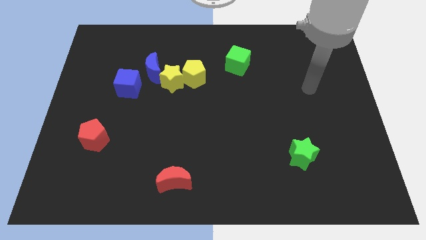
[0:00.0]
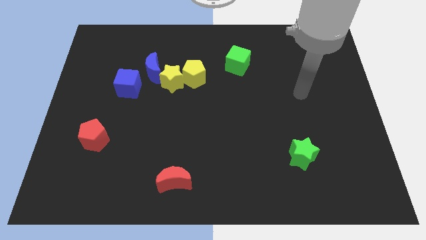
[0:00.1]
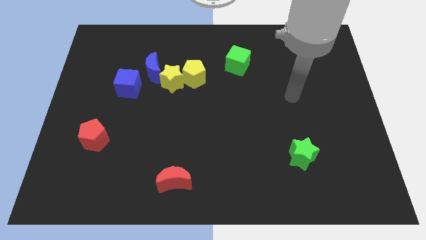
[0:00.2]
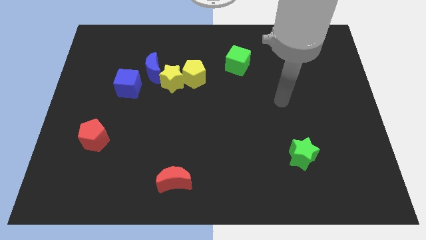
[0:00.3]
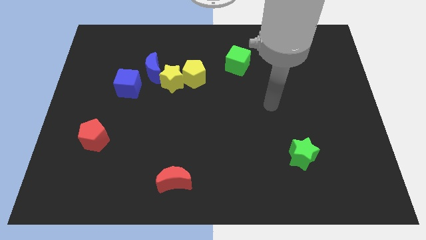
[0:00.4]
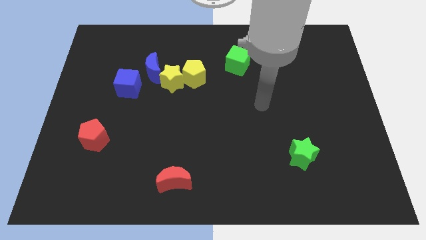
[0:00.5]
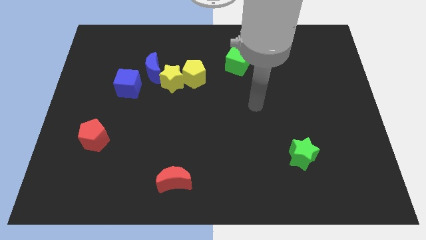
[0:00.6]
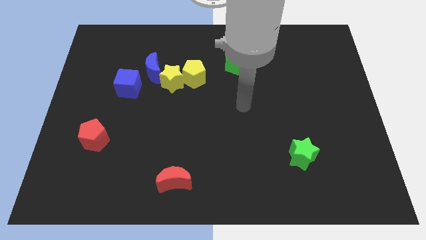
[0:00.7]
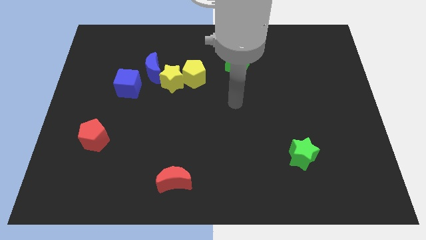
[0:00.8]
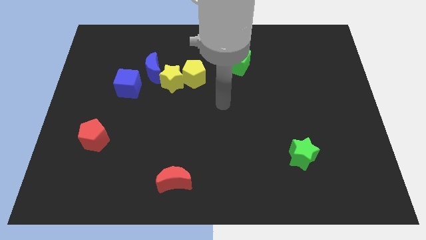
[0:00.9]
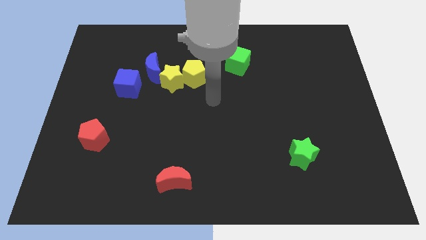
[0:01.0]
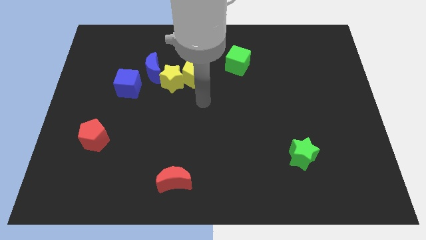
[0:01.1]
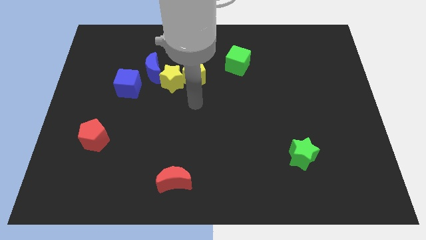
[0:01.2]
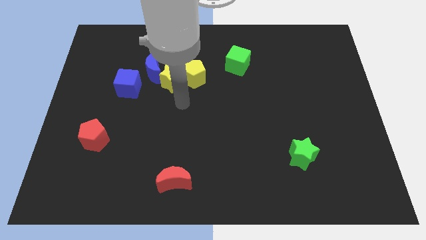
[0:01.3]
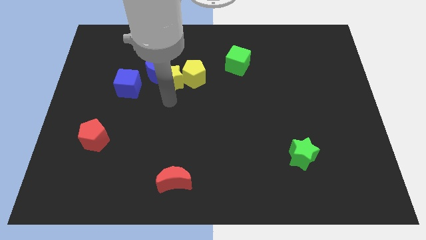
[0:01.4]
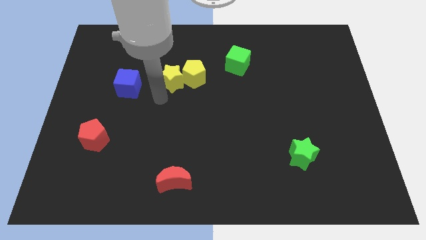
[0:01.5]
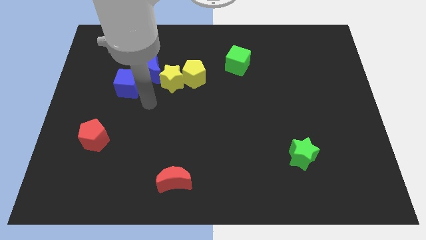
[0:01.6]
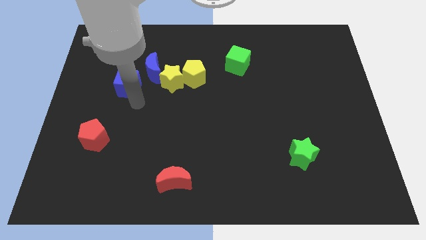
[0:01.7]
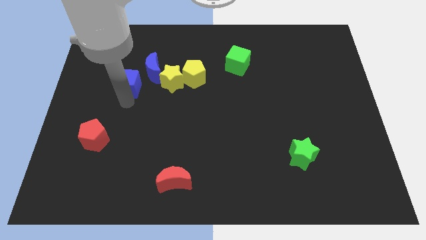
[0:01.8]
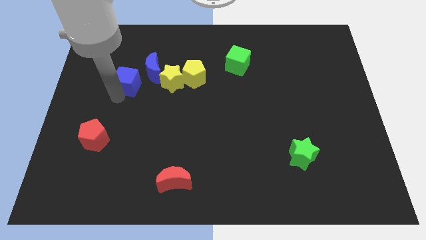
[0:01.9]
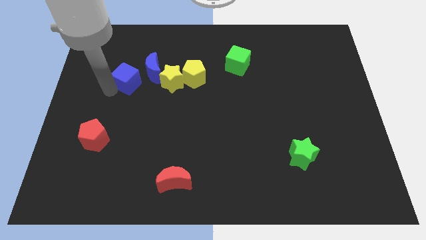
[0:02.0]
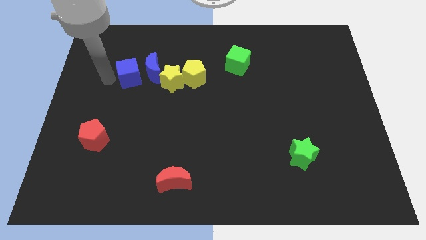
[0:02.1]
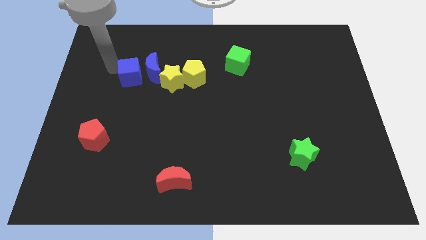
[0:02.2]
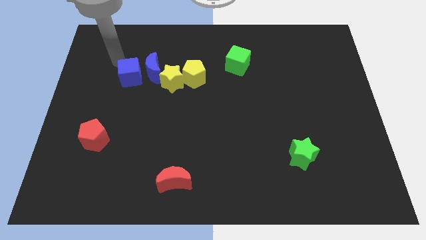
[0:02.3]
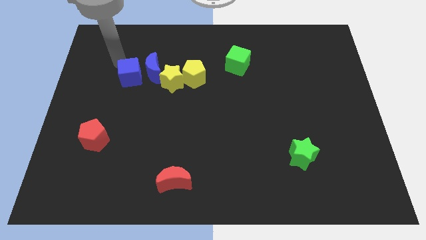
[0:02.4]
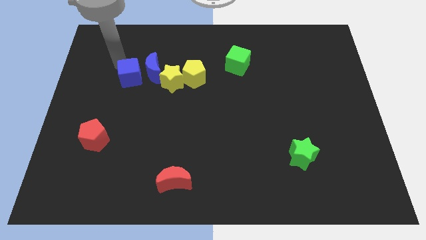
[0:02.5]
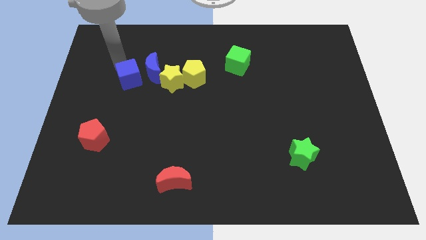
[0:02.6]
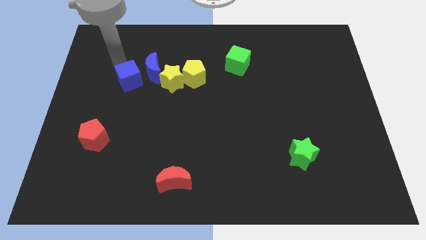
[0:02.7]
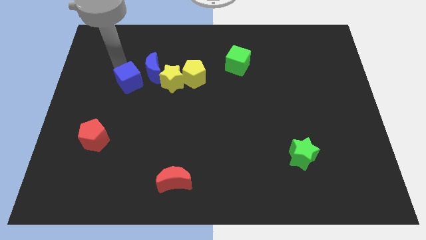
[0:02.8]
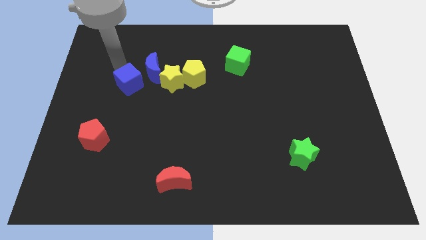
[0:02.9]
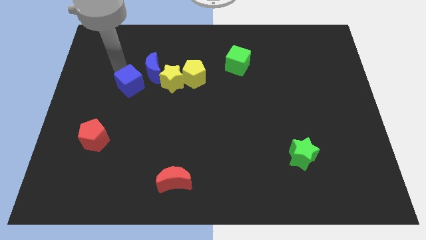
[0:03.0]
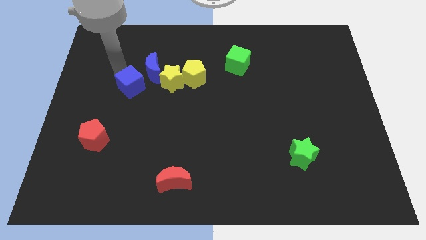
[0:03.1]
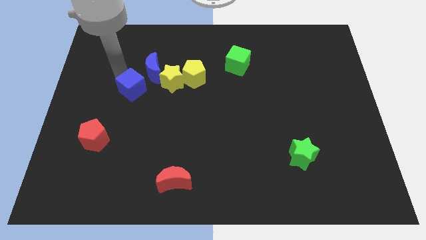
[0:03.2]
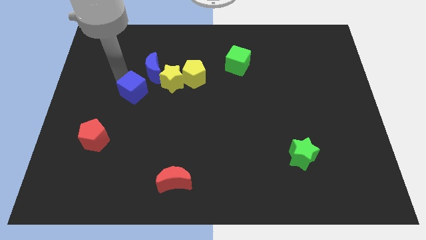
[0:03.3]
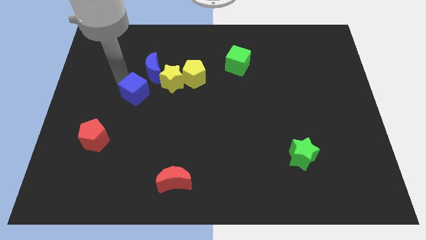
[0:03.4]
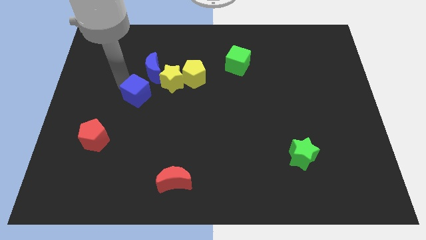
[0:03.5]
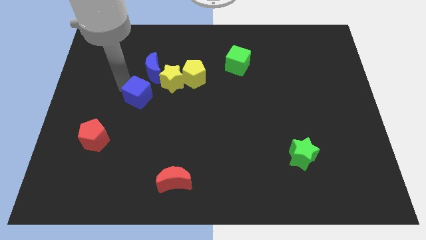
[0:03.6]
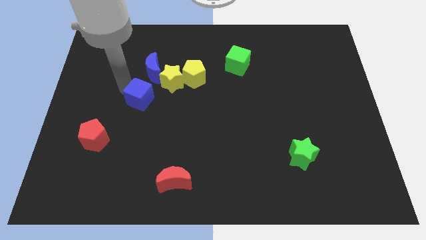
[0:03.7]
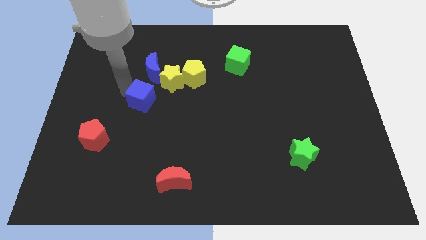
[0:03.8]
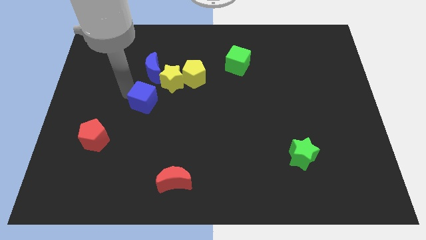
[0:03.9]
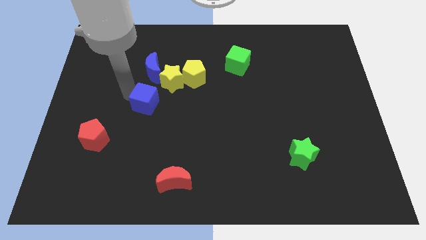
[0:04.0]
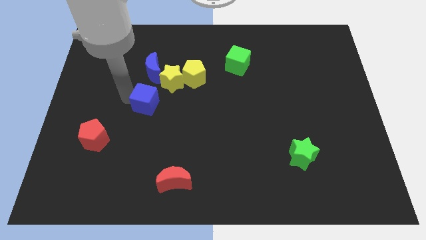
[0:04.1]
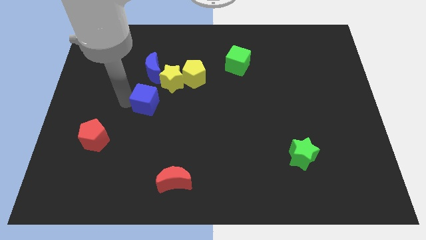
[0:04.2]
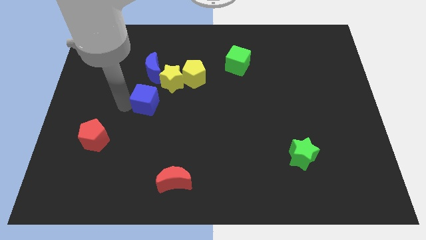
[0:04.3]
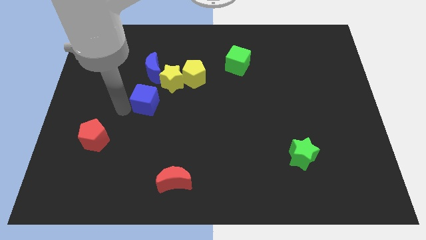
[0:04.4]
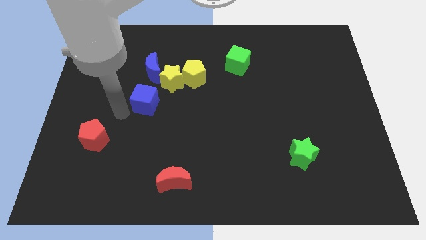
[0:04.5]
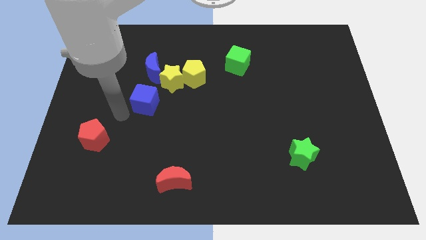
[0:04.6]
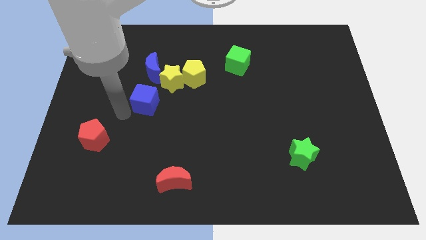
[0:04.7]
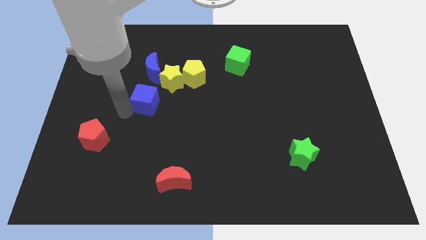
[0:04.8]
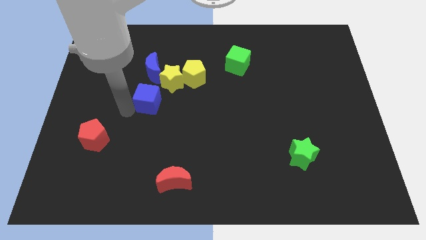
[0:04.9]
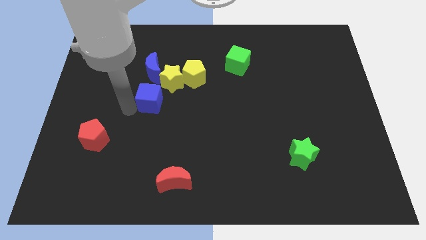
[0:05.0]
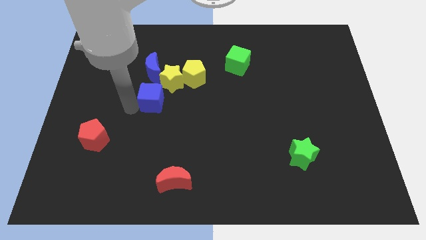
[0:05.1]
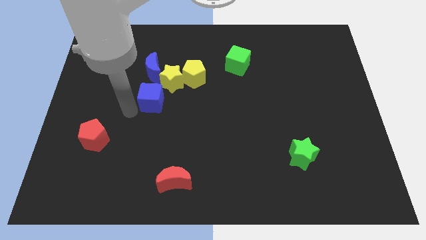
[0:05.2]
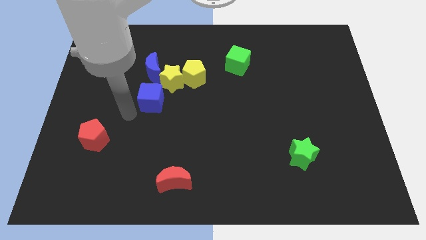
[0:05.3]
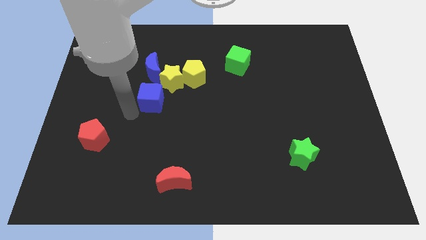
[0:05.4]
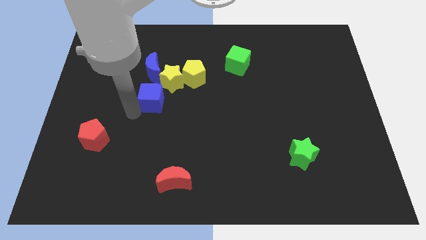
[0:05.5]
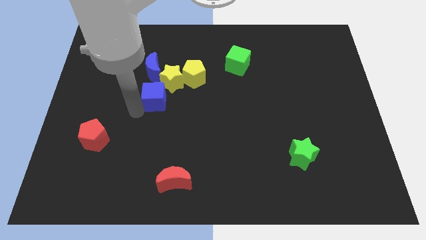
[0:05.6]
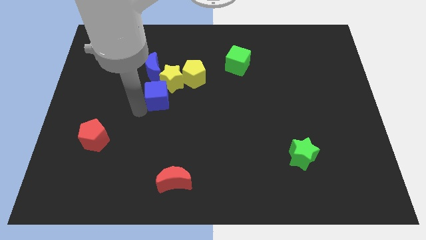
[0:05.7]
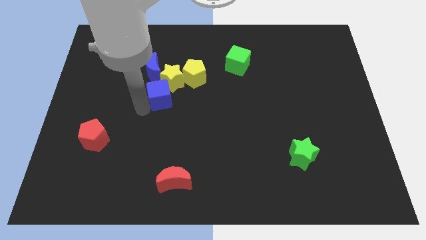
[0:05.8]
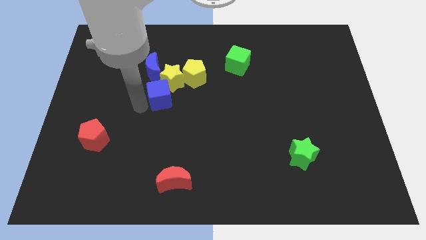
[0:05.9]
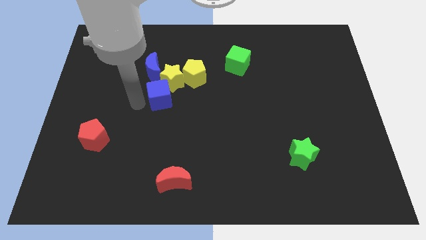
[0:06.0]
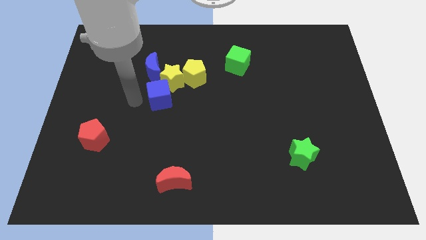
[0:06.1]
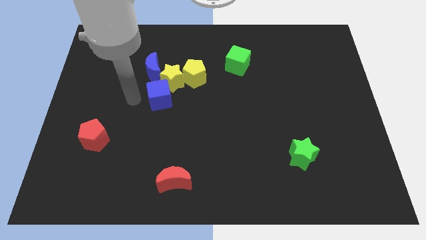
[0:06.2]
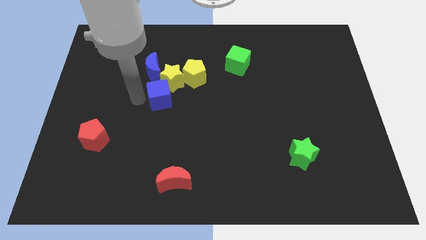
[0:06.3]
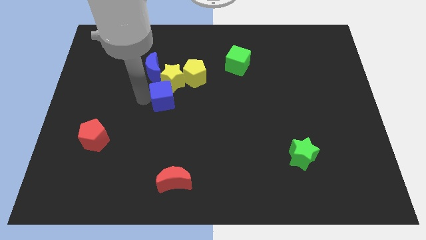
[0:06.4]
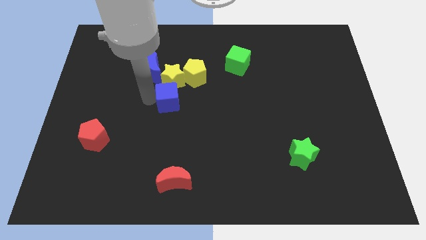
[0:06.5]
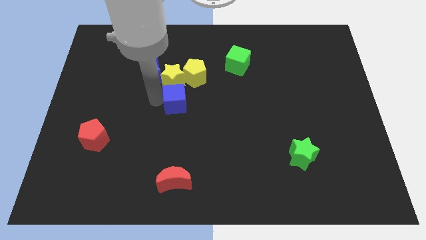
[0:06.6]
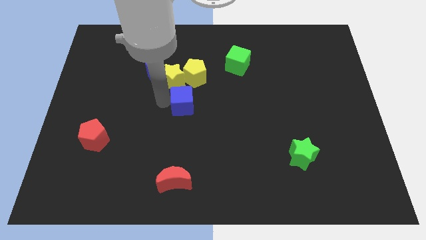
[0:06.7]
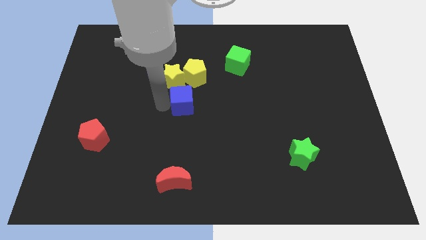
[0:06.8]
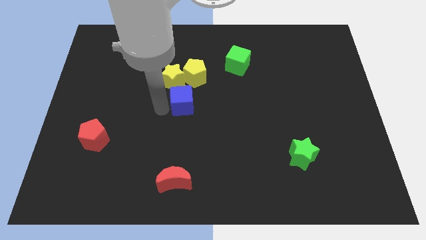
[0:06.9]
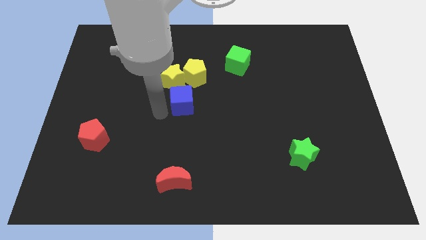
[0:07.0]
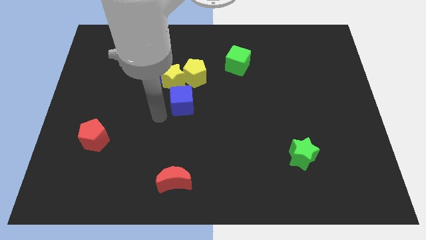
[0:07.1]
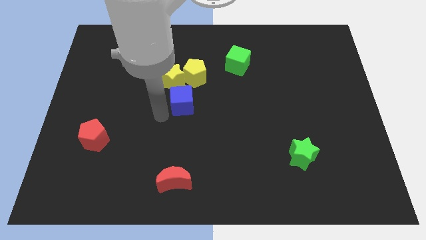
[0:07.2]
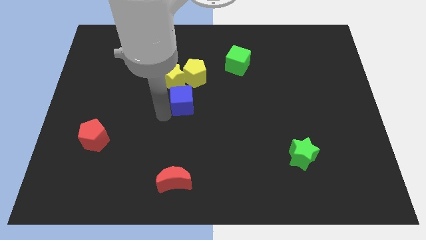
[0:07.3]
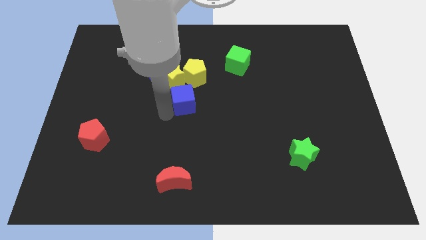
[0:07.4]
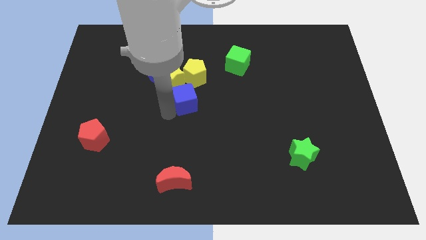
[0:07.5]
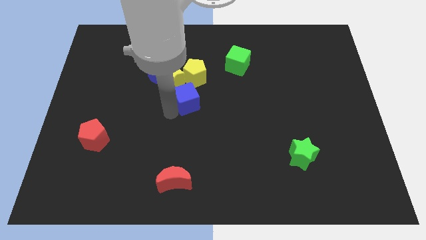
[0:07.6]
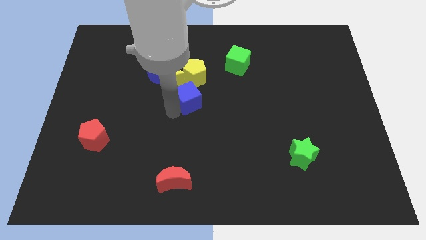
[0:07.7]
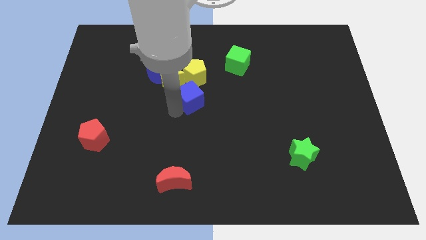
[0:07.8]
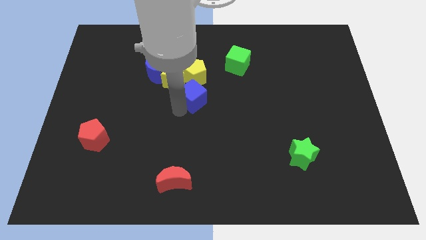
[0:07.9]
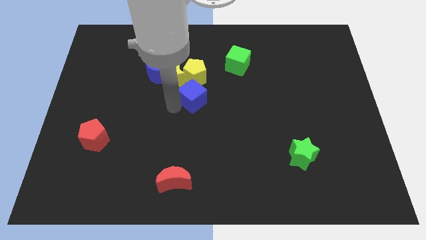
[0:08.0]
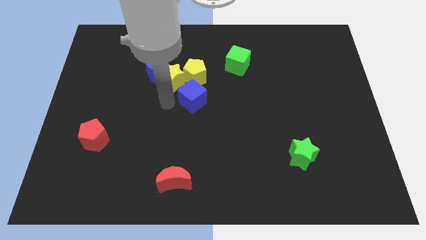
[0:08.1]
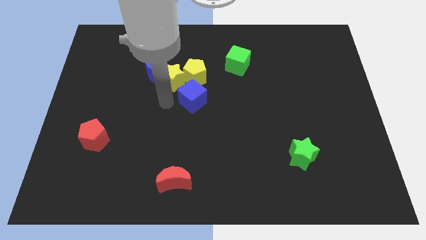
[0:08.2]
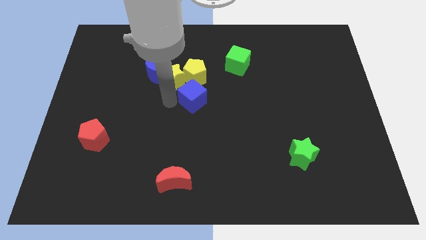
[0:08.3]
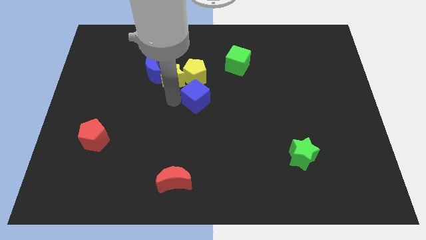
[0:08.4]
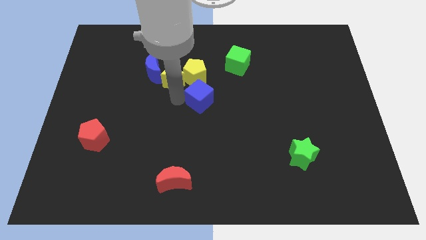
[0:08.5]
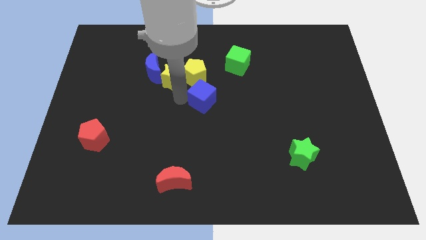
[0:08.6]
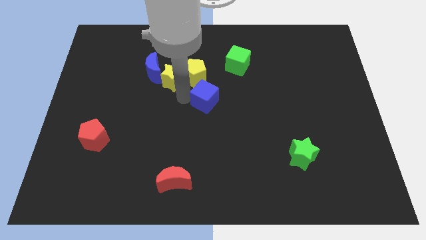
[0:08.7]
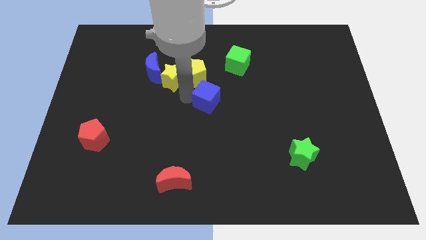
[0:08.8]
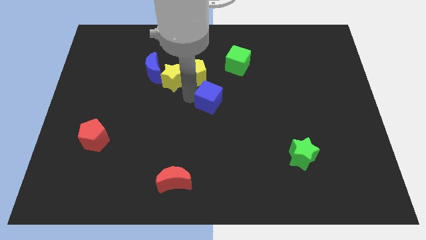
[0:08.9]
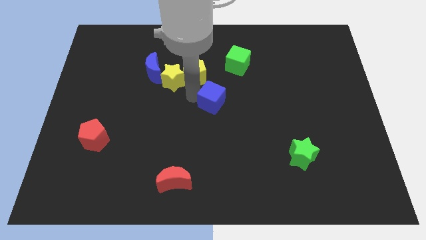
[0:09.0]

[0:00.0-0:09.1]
move the blue cube right
